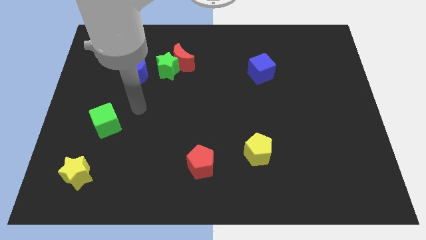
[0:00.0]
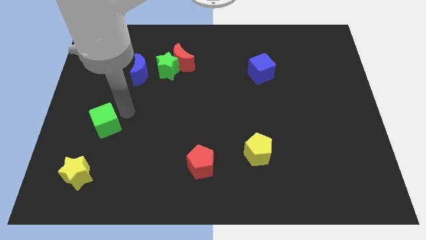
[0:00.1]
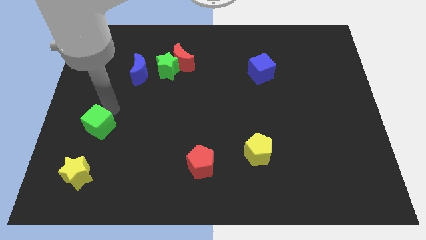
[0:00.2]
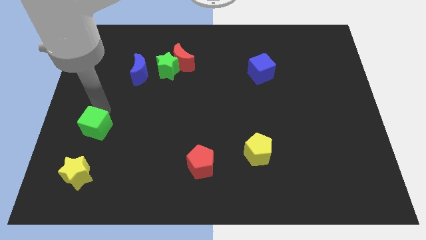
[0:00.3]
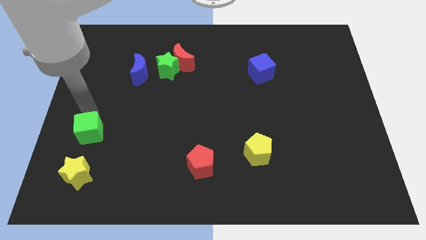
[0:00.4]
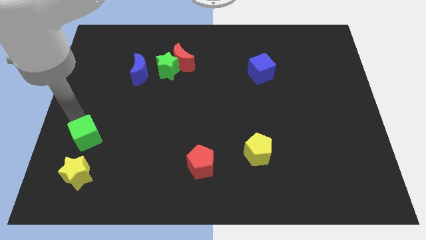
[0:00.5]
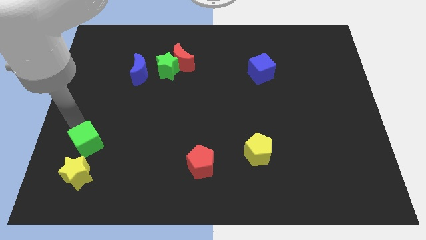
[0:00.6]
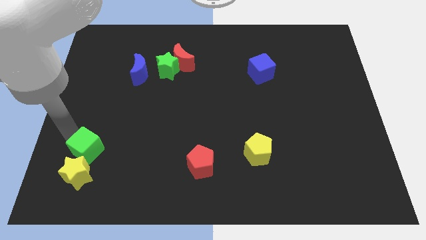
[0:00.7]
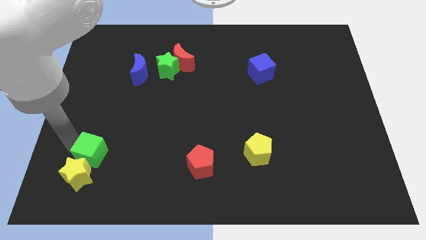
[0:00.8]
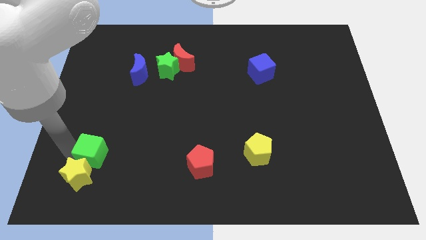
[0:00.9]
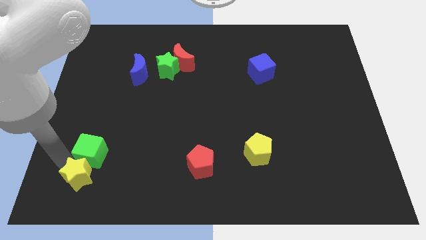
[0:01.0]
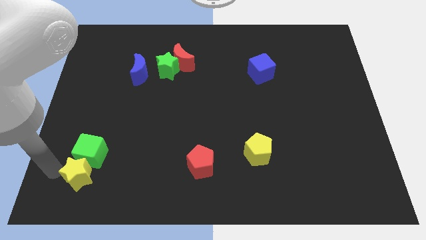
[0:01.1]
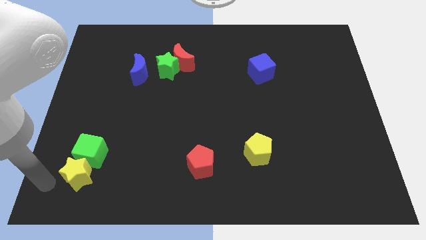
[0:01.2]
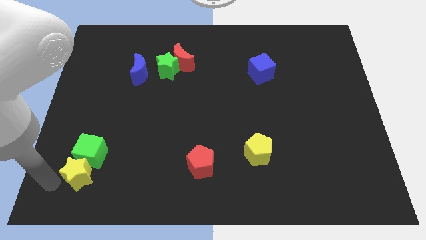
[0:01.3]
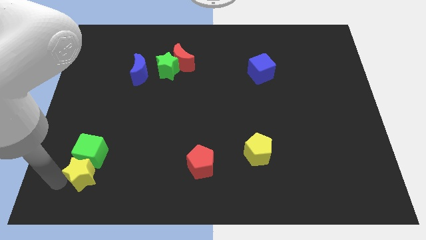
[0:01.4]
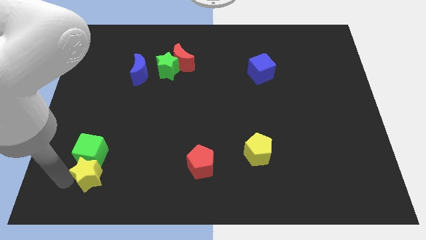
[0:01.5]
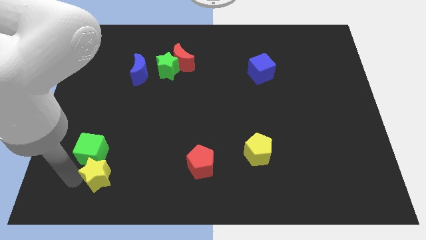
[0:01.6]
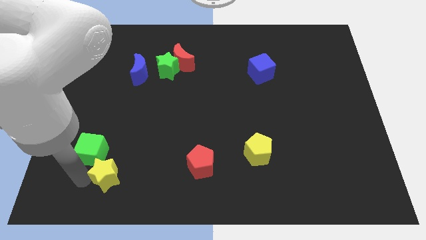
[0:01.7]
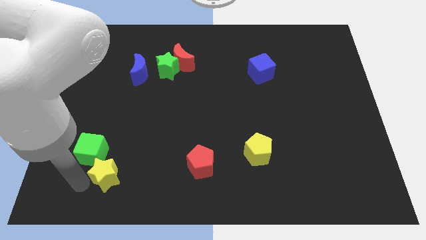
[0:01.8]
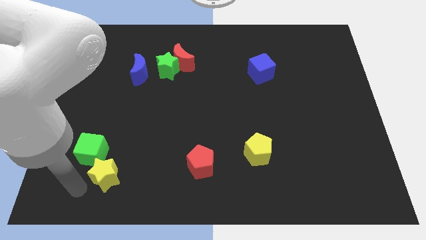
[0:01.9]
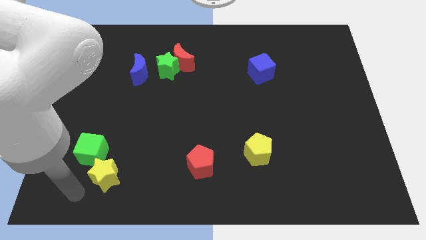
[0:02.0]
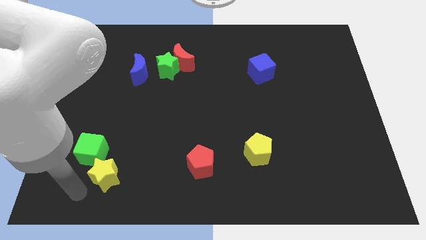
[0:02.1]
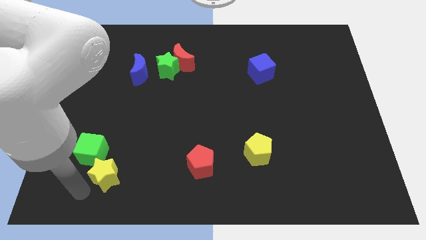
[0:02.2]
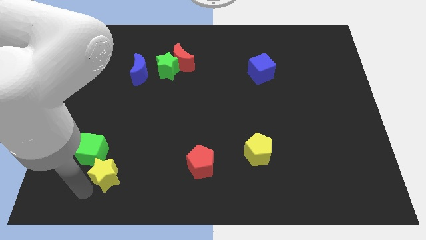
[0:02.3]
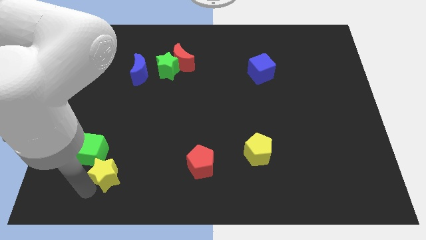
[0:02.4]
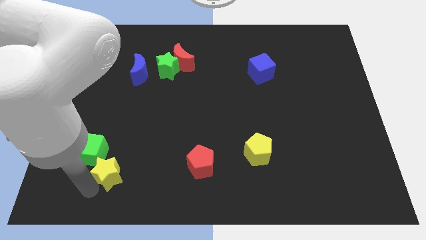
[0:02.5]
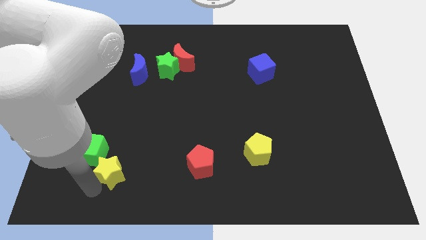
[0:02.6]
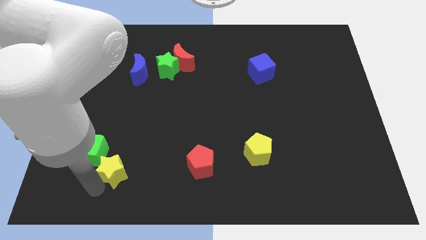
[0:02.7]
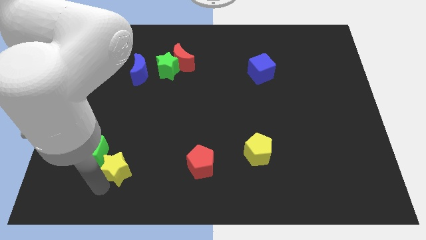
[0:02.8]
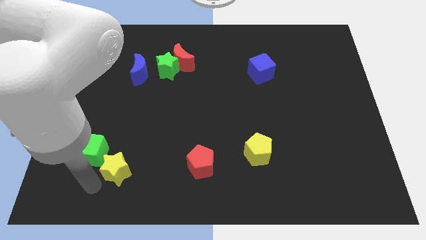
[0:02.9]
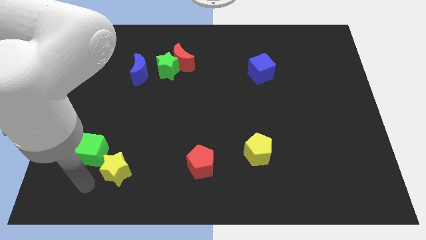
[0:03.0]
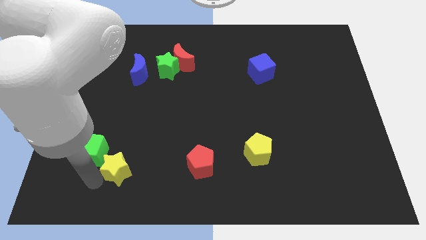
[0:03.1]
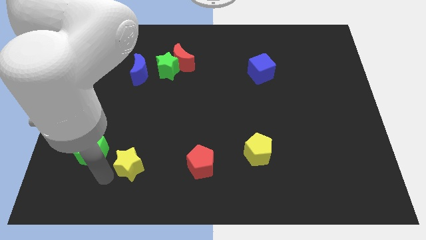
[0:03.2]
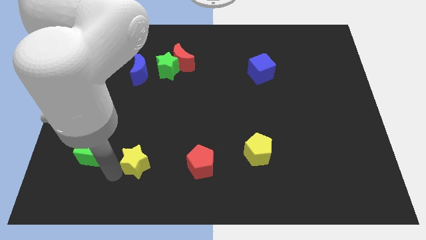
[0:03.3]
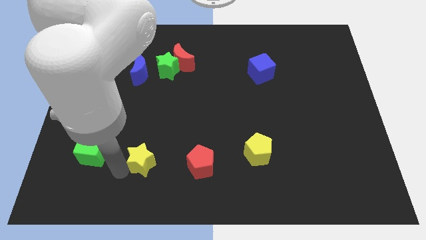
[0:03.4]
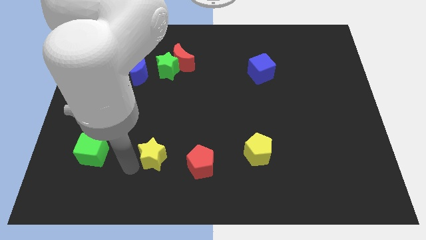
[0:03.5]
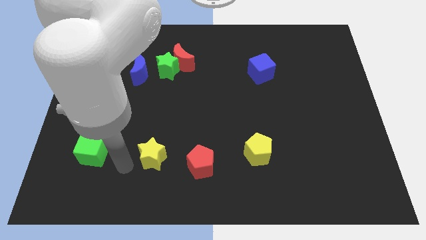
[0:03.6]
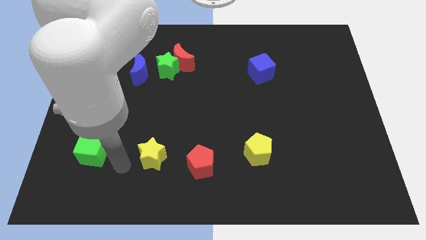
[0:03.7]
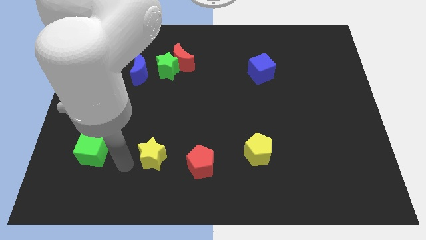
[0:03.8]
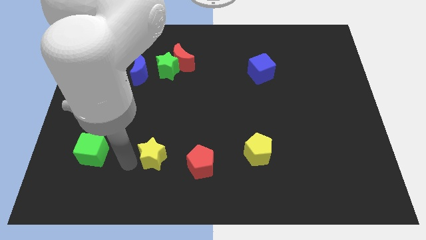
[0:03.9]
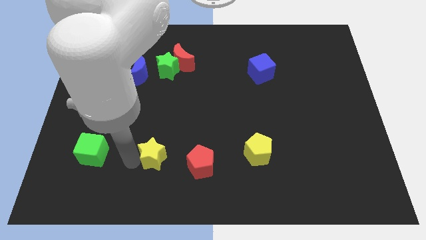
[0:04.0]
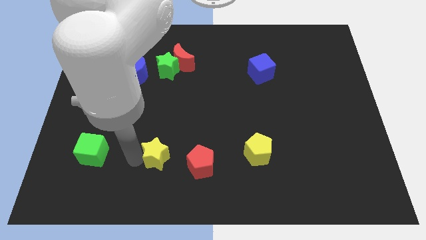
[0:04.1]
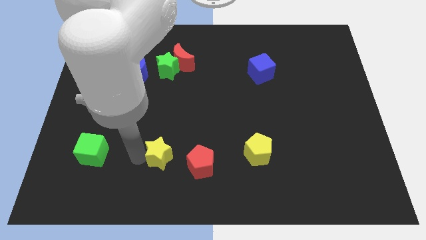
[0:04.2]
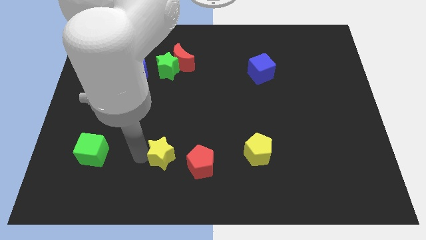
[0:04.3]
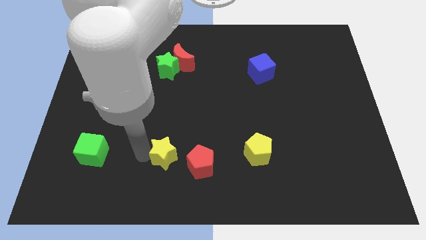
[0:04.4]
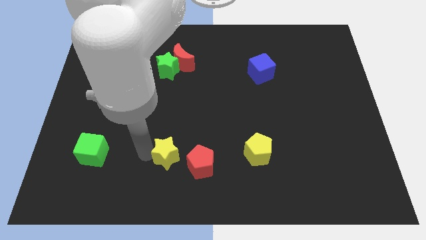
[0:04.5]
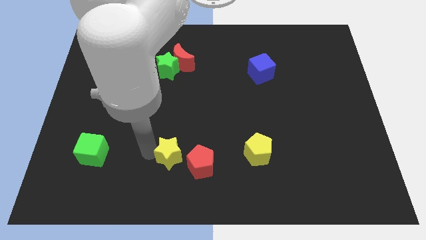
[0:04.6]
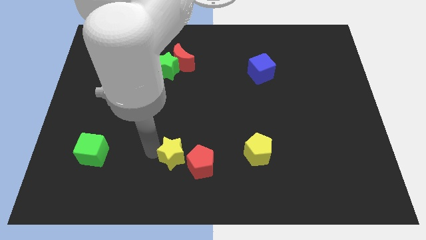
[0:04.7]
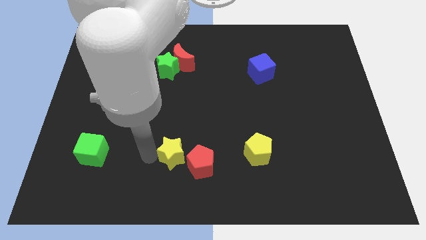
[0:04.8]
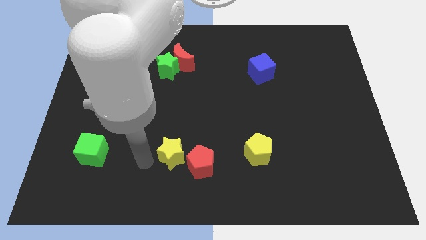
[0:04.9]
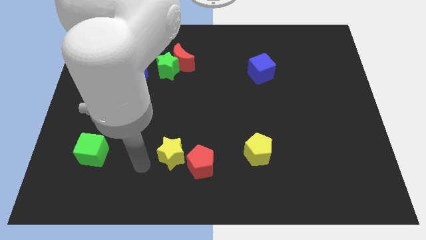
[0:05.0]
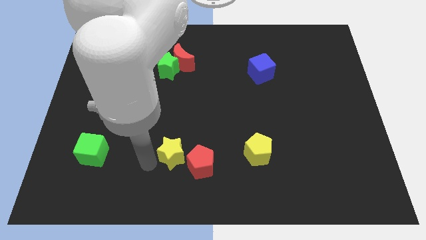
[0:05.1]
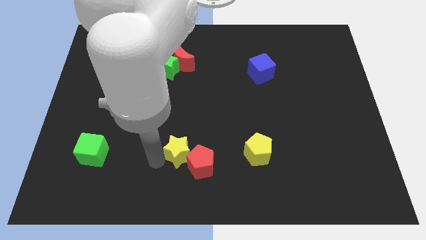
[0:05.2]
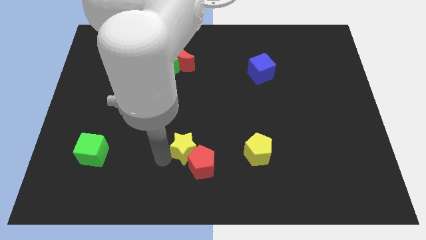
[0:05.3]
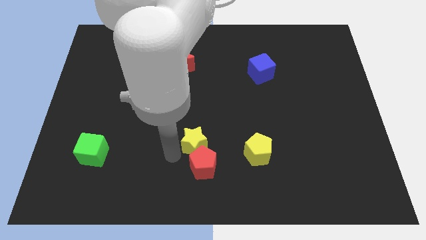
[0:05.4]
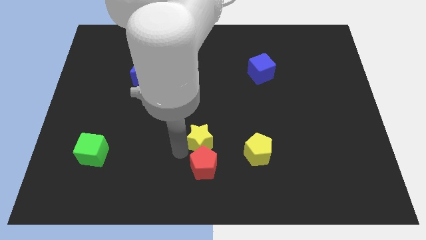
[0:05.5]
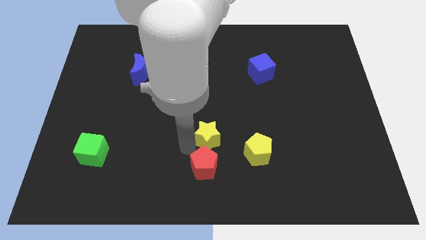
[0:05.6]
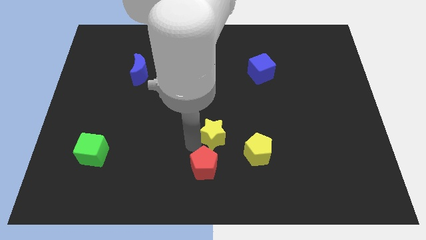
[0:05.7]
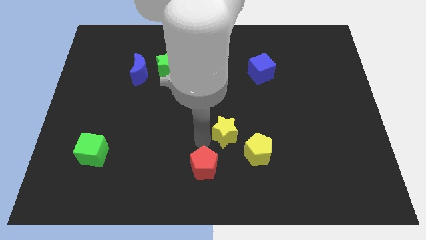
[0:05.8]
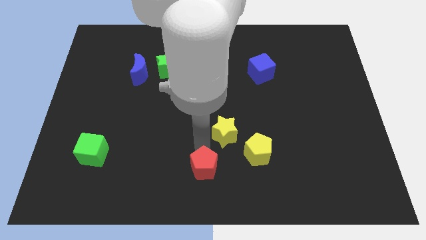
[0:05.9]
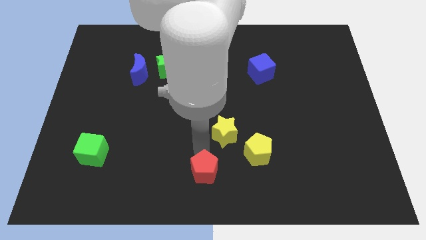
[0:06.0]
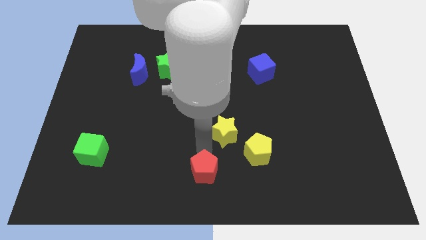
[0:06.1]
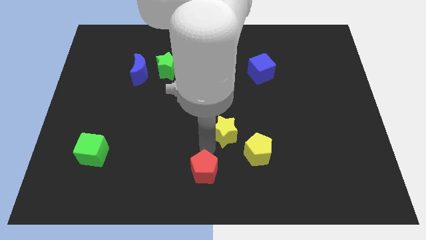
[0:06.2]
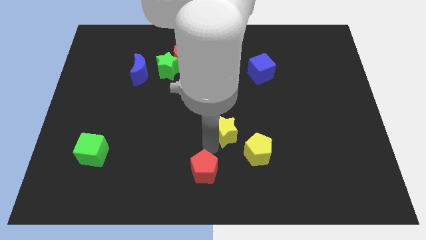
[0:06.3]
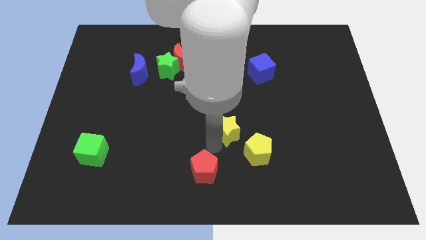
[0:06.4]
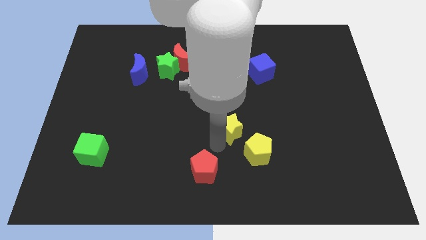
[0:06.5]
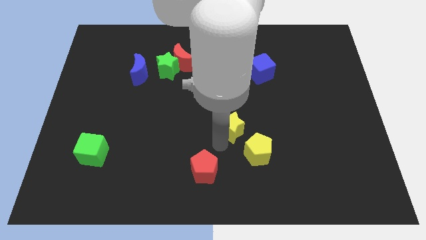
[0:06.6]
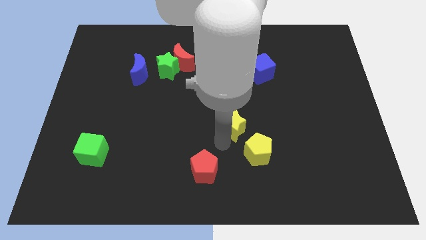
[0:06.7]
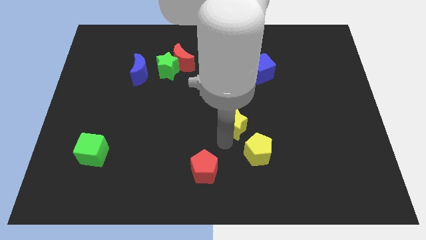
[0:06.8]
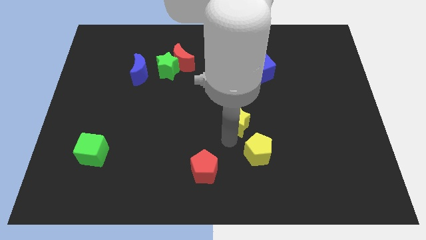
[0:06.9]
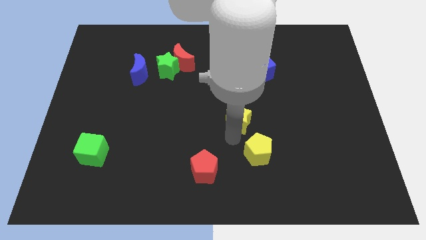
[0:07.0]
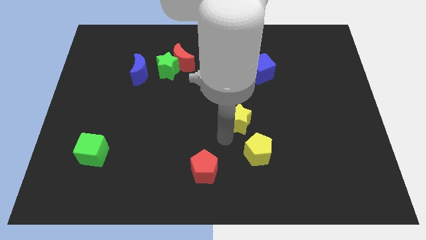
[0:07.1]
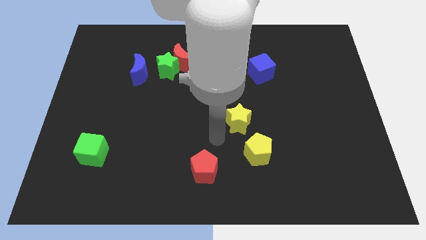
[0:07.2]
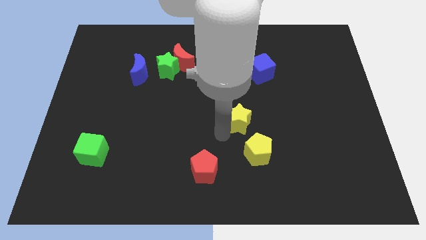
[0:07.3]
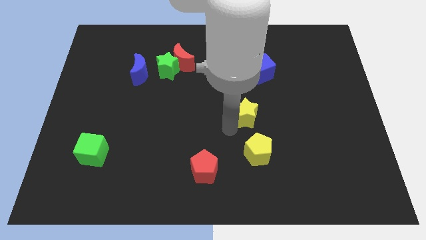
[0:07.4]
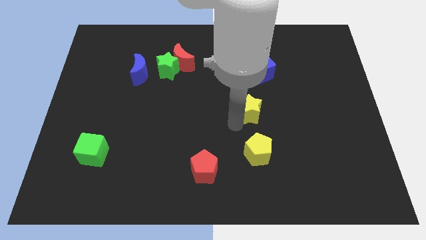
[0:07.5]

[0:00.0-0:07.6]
put the yellow star below the blue cube
